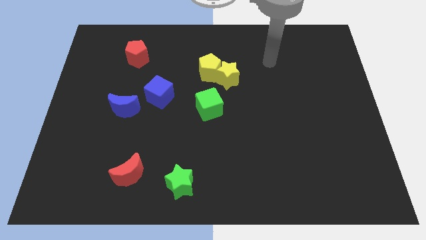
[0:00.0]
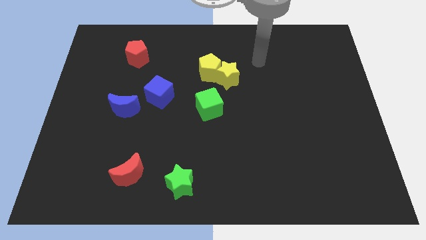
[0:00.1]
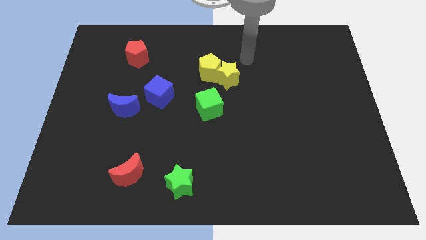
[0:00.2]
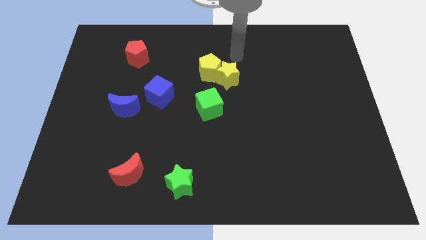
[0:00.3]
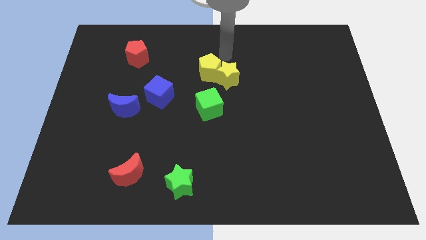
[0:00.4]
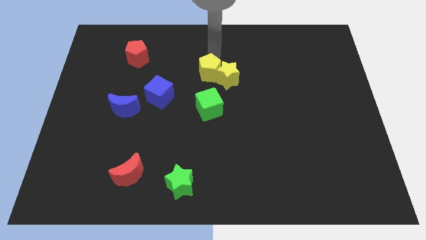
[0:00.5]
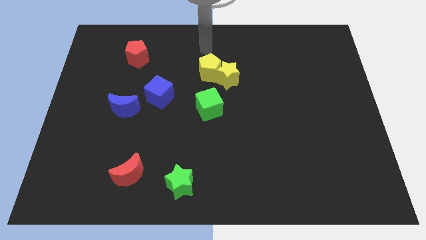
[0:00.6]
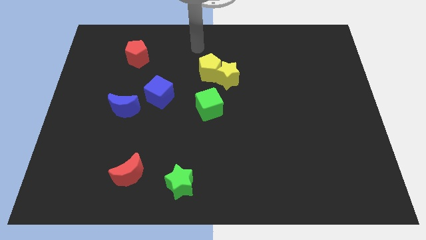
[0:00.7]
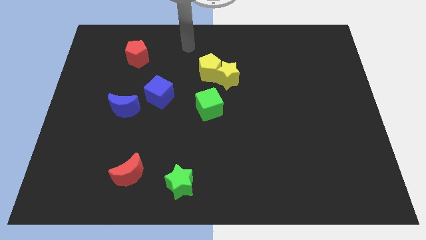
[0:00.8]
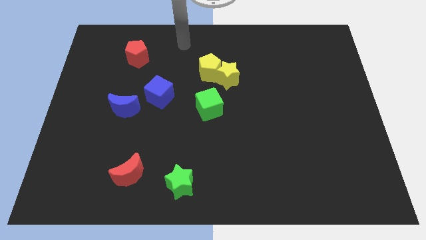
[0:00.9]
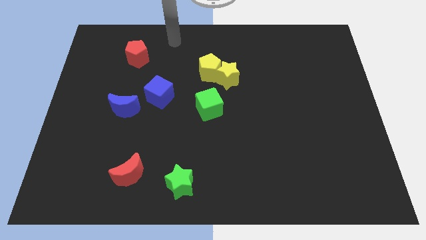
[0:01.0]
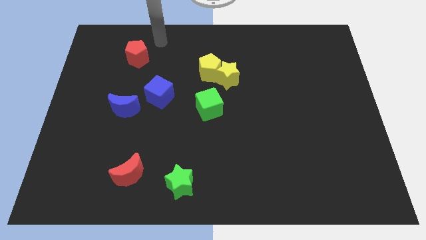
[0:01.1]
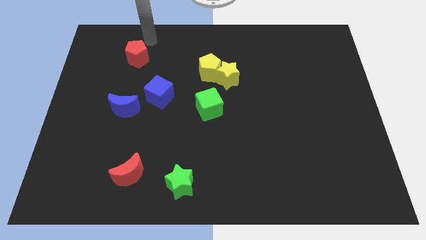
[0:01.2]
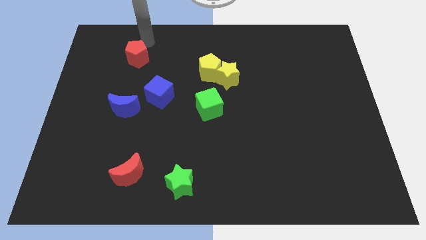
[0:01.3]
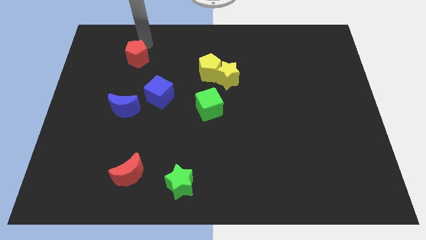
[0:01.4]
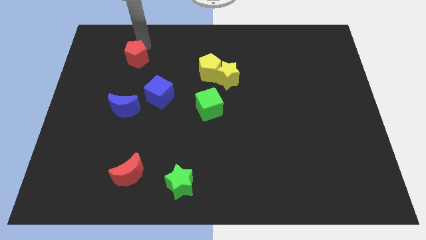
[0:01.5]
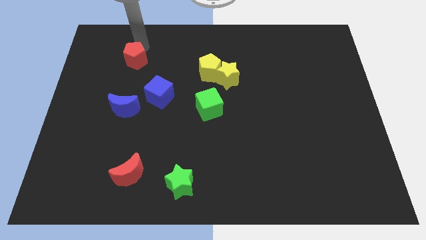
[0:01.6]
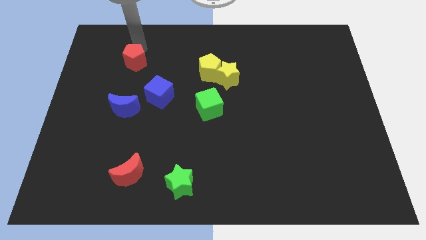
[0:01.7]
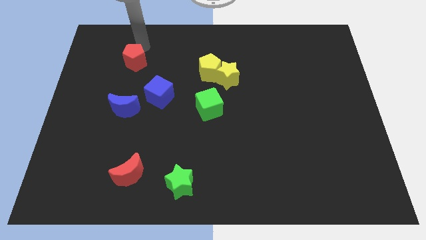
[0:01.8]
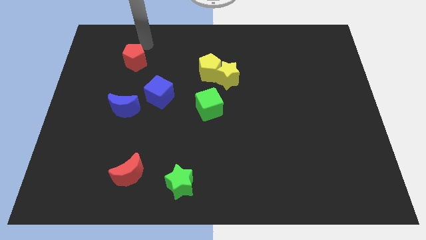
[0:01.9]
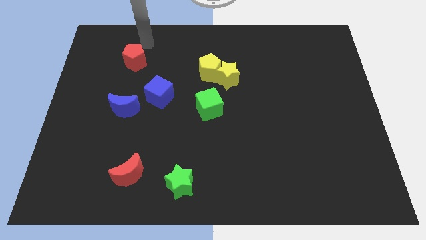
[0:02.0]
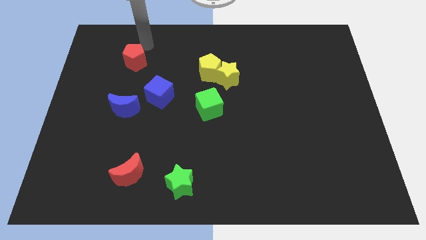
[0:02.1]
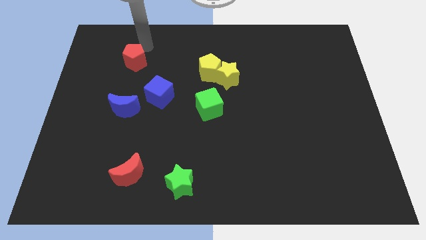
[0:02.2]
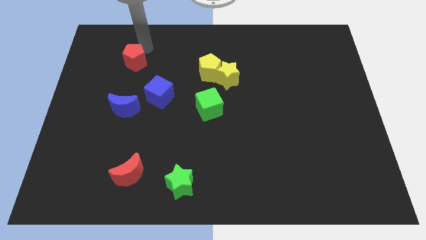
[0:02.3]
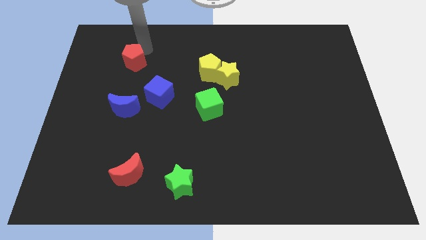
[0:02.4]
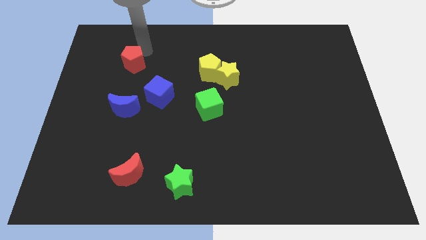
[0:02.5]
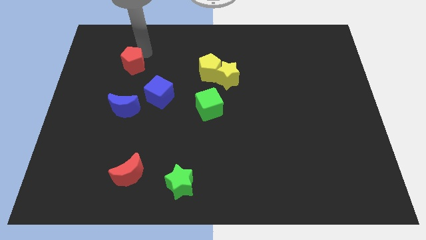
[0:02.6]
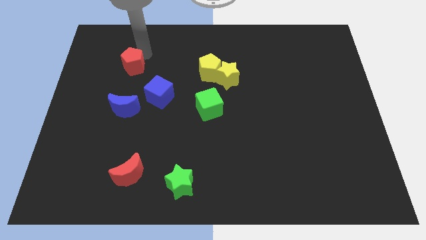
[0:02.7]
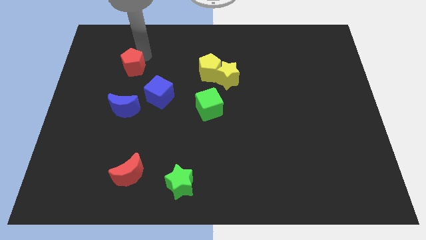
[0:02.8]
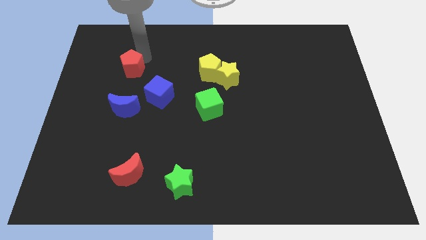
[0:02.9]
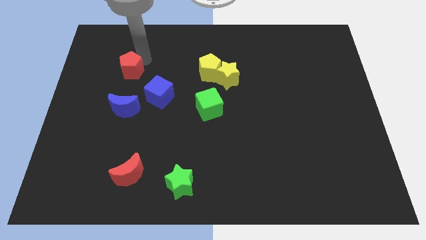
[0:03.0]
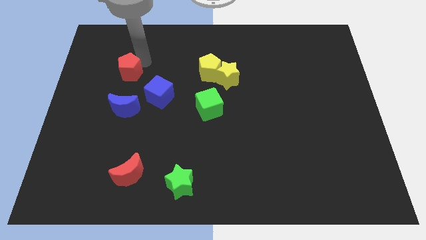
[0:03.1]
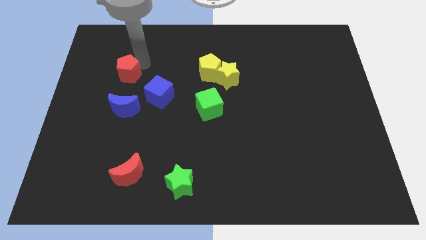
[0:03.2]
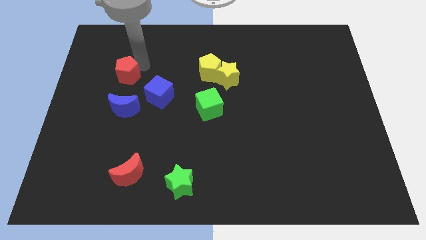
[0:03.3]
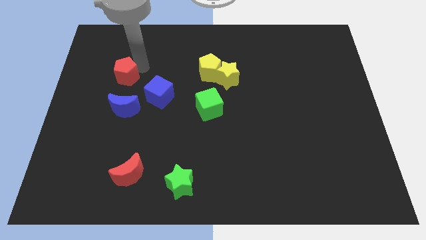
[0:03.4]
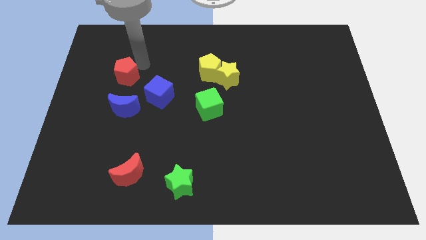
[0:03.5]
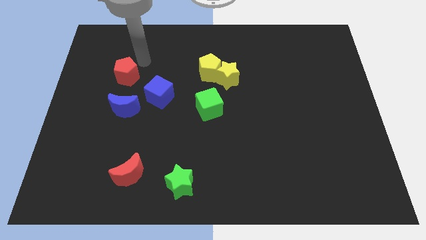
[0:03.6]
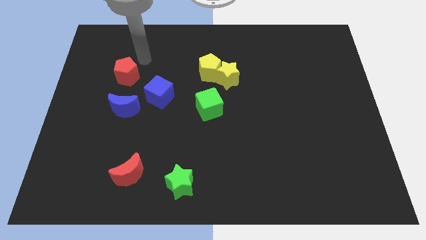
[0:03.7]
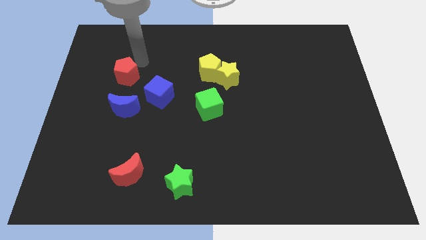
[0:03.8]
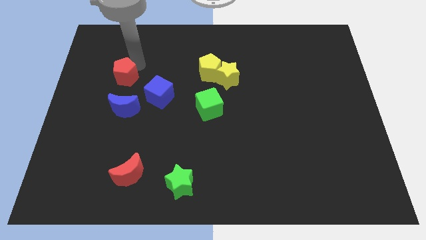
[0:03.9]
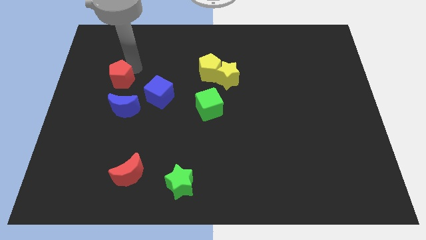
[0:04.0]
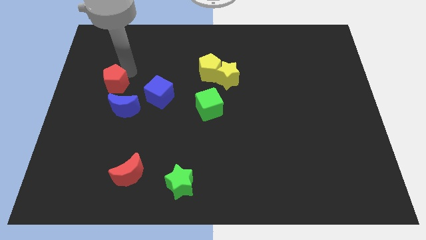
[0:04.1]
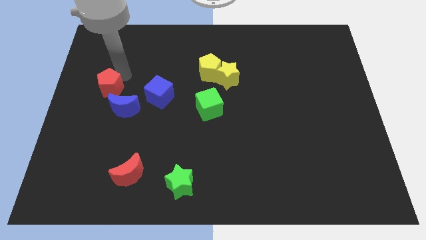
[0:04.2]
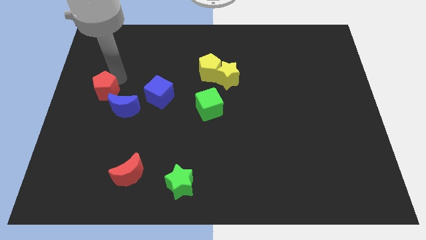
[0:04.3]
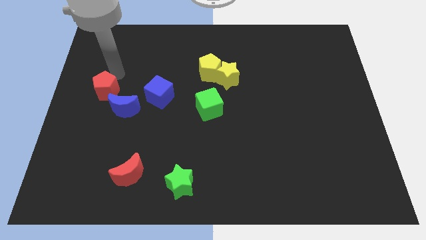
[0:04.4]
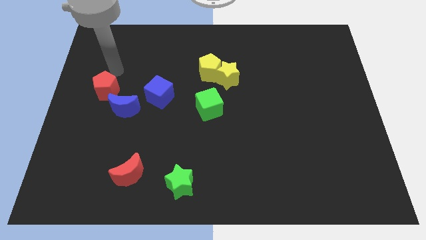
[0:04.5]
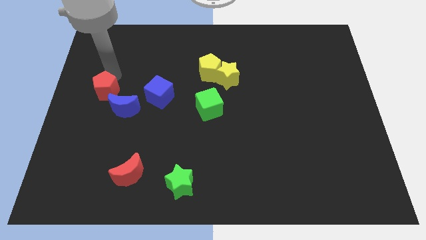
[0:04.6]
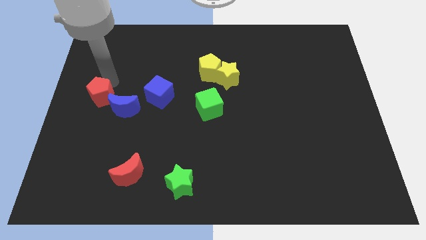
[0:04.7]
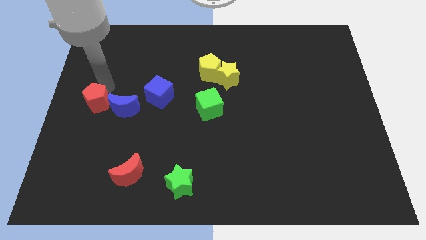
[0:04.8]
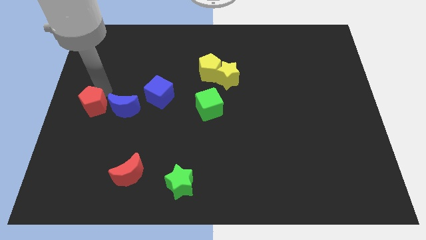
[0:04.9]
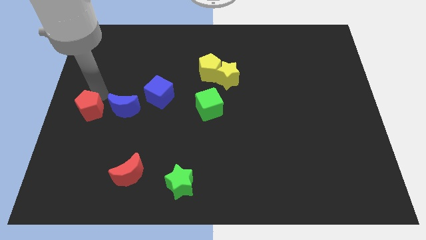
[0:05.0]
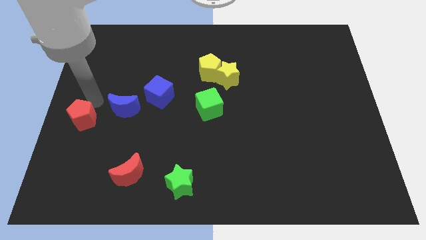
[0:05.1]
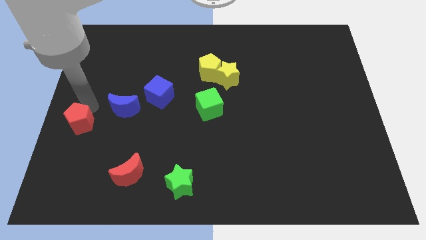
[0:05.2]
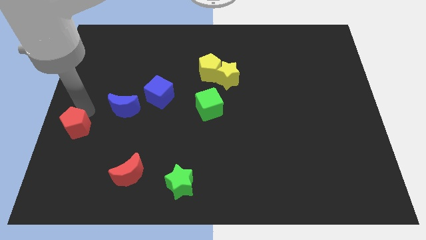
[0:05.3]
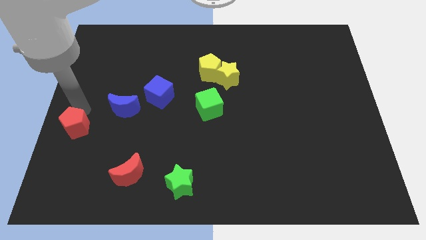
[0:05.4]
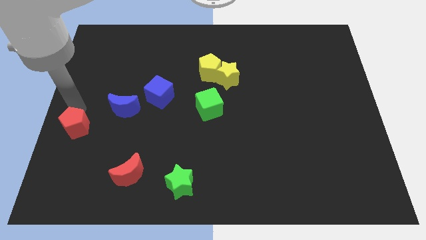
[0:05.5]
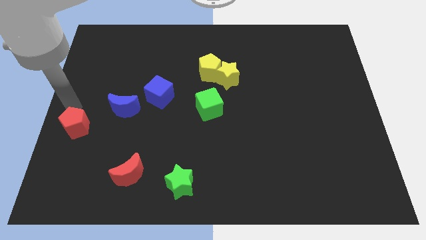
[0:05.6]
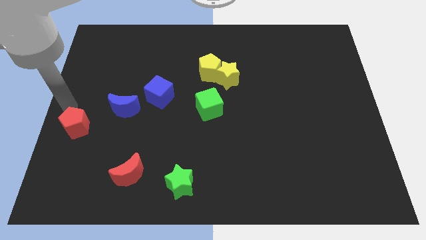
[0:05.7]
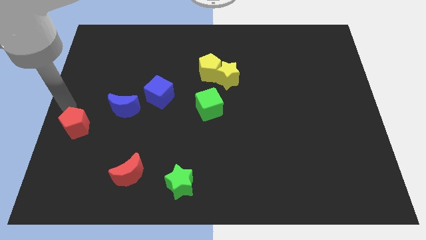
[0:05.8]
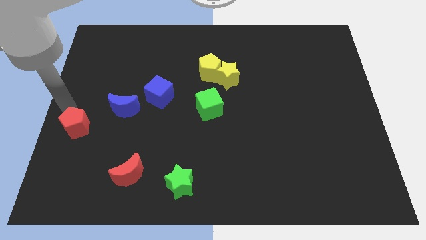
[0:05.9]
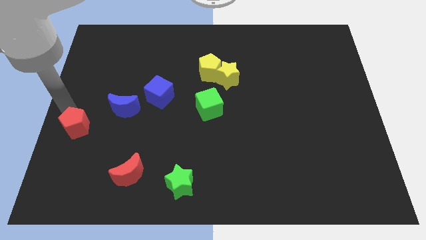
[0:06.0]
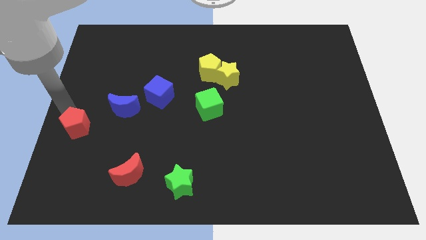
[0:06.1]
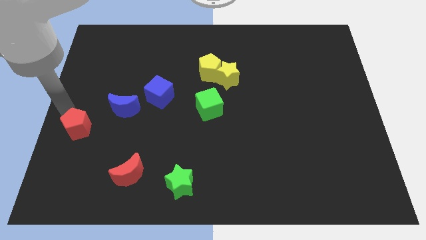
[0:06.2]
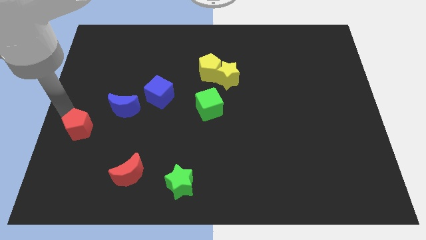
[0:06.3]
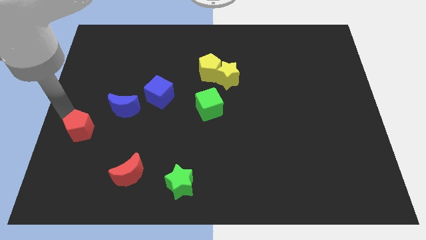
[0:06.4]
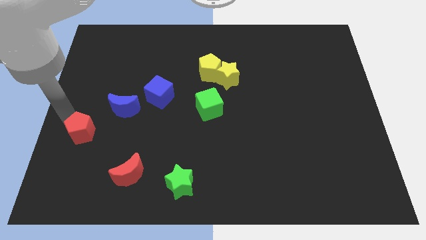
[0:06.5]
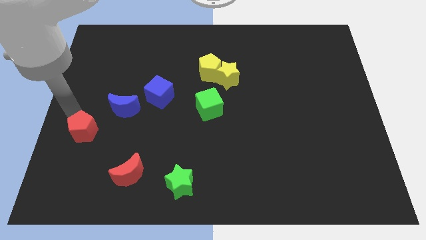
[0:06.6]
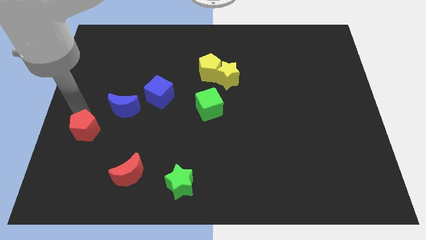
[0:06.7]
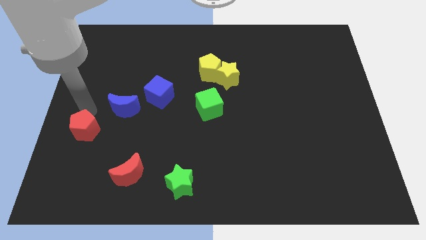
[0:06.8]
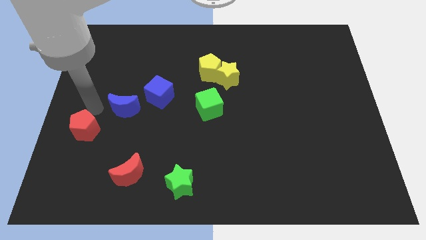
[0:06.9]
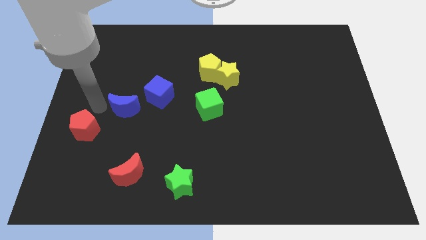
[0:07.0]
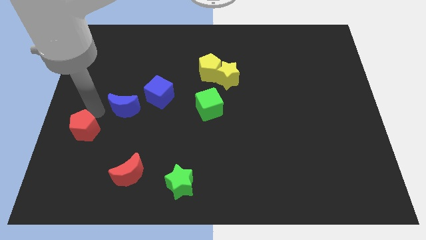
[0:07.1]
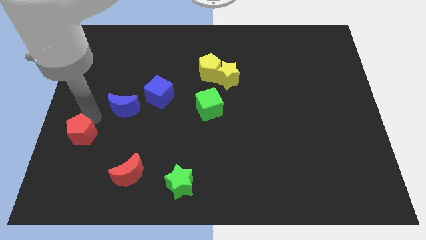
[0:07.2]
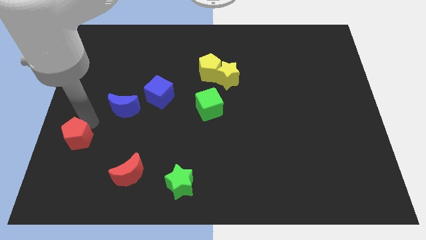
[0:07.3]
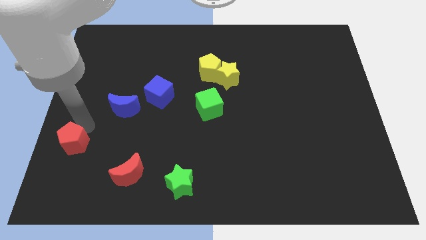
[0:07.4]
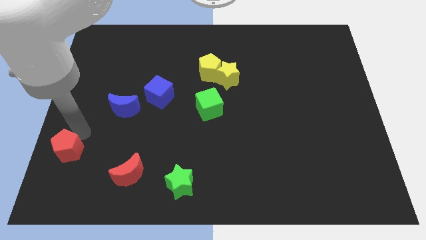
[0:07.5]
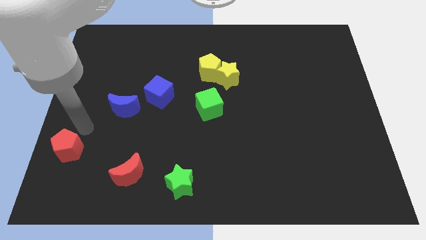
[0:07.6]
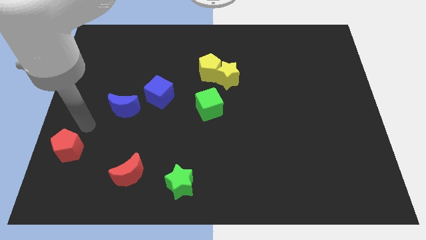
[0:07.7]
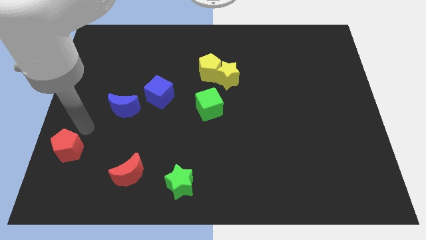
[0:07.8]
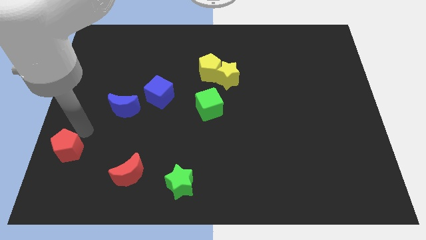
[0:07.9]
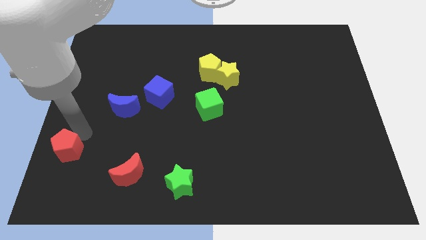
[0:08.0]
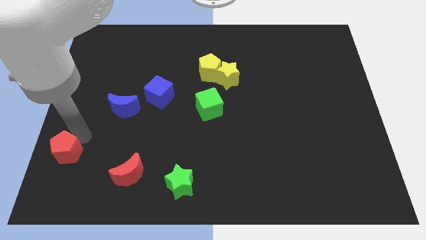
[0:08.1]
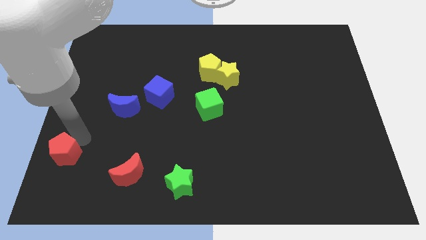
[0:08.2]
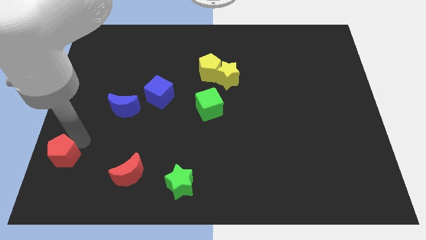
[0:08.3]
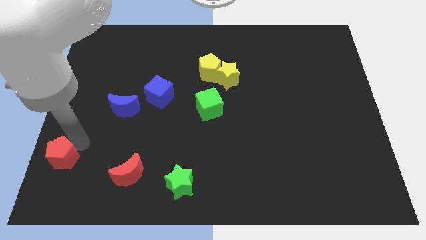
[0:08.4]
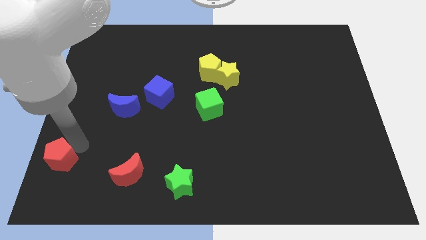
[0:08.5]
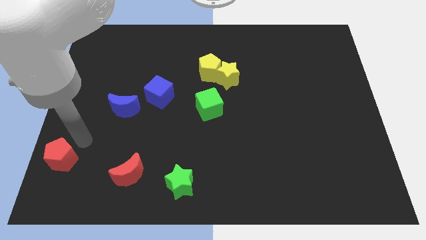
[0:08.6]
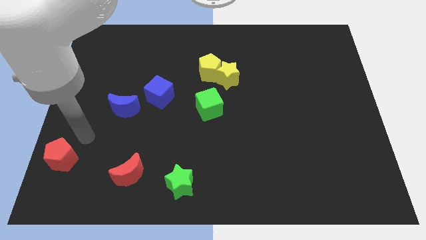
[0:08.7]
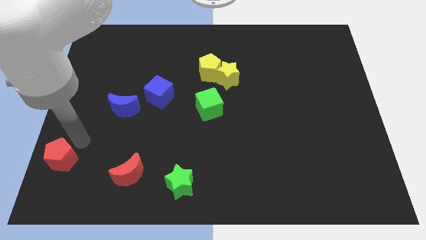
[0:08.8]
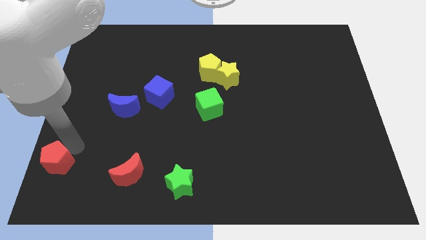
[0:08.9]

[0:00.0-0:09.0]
slide the red pentagon to the lower left corner
